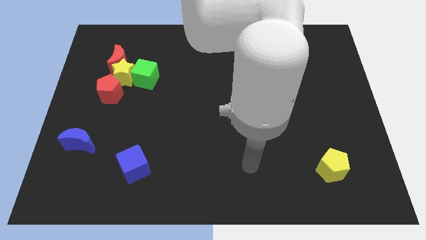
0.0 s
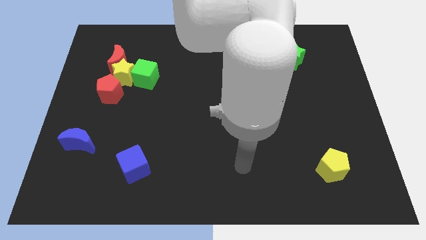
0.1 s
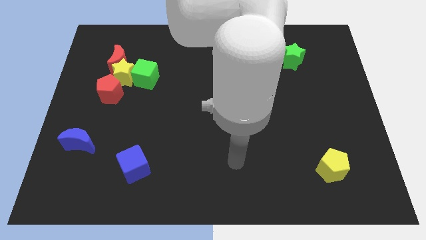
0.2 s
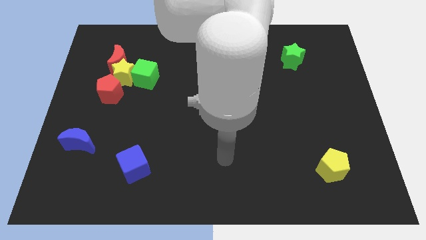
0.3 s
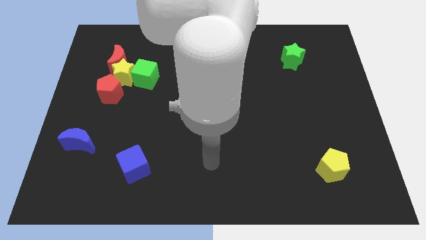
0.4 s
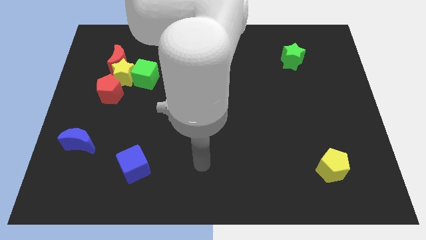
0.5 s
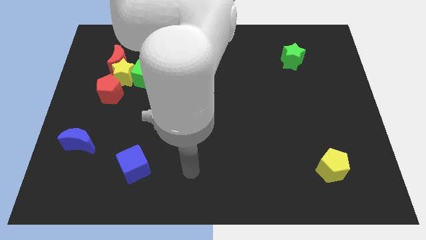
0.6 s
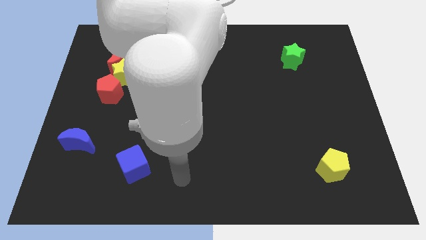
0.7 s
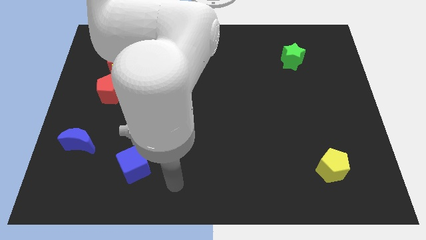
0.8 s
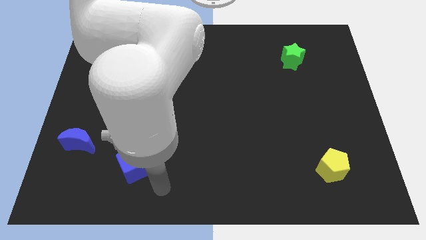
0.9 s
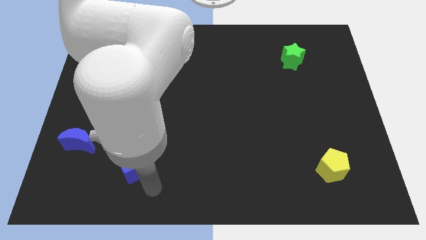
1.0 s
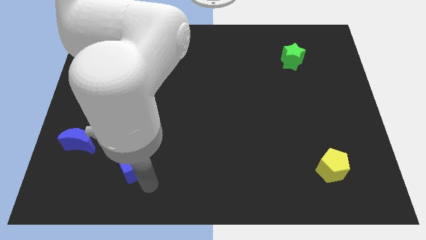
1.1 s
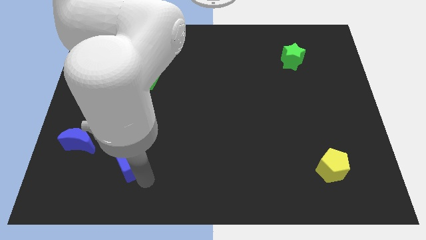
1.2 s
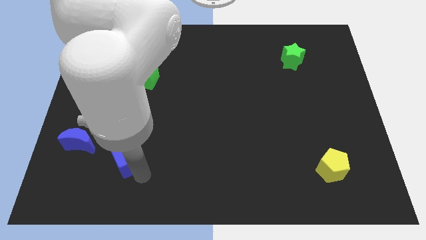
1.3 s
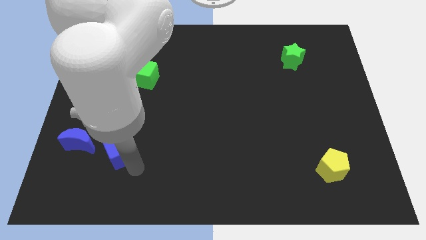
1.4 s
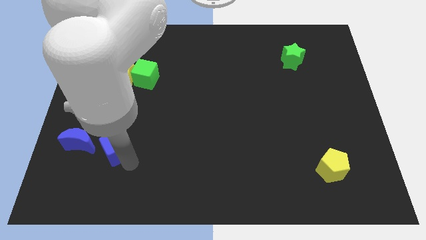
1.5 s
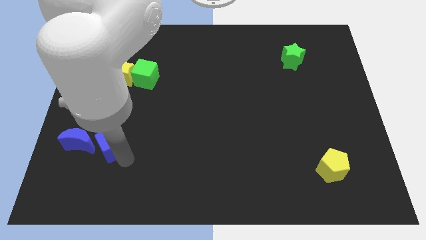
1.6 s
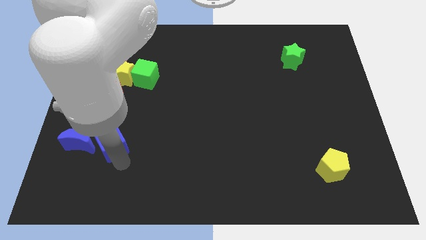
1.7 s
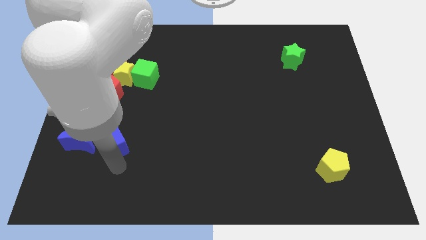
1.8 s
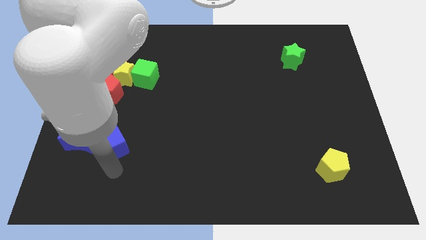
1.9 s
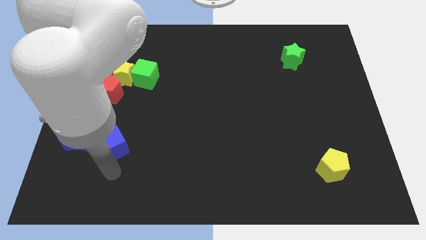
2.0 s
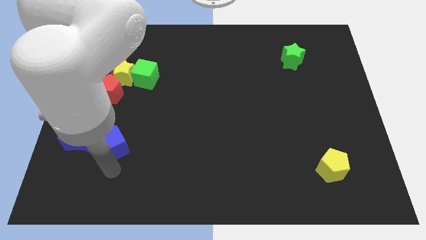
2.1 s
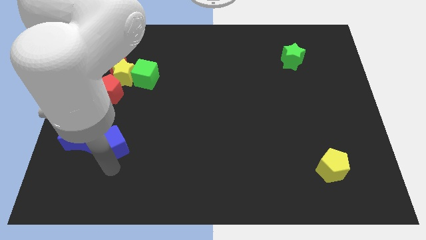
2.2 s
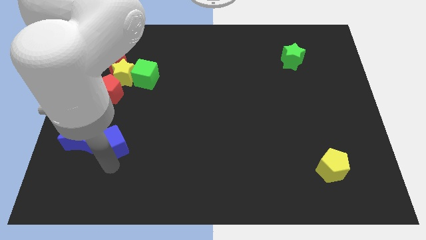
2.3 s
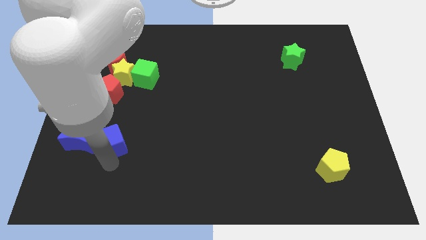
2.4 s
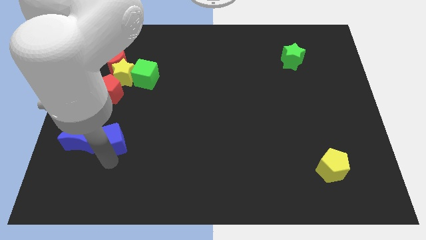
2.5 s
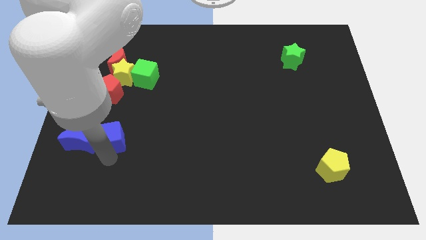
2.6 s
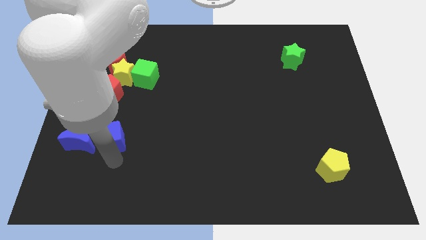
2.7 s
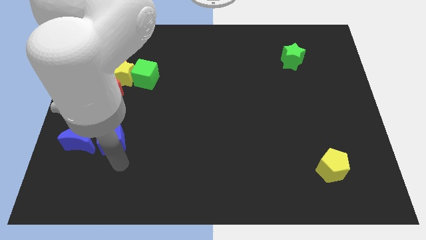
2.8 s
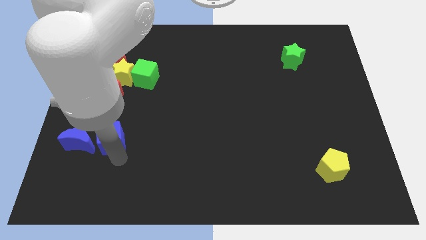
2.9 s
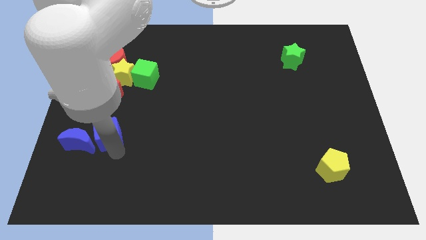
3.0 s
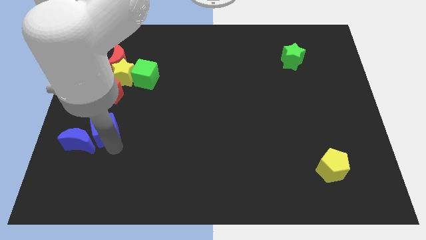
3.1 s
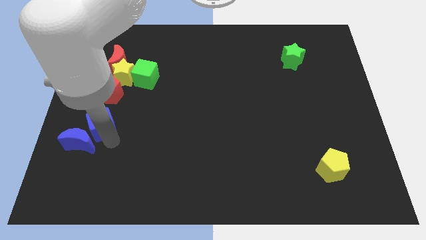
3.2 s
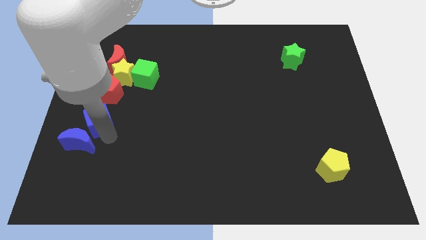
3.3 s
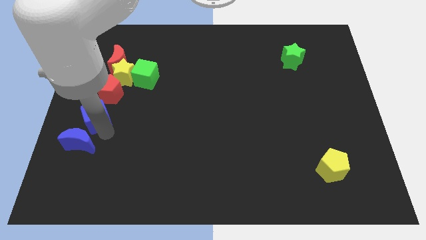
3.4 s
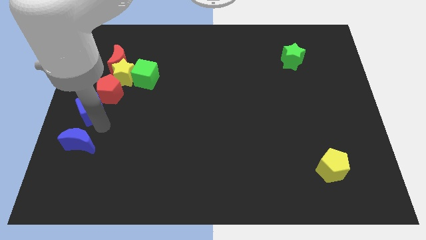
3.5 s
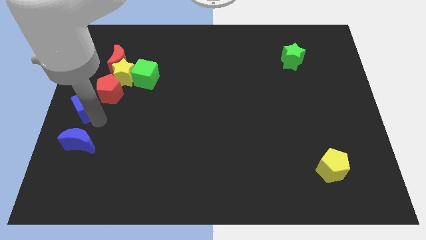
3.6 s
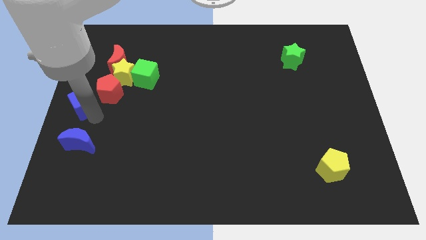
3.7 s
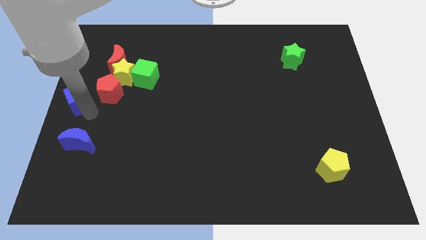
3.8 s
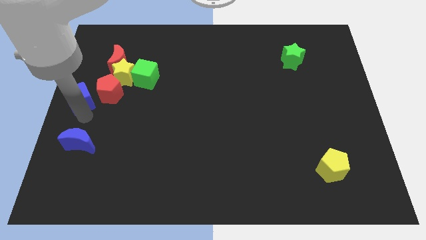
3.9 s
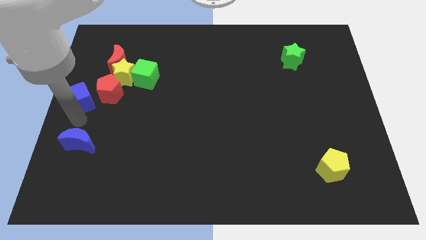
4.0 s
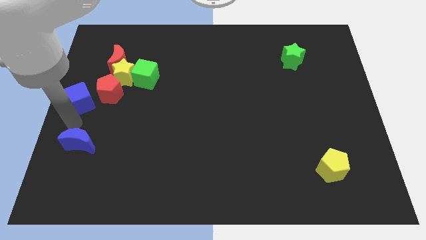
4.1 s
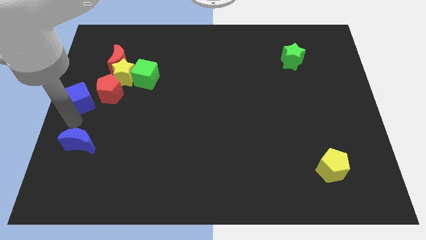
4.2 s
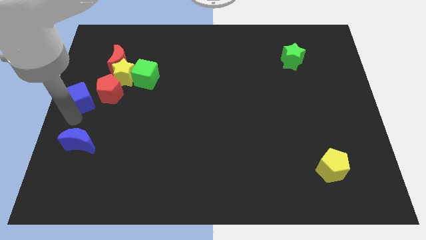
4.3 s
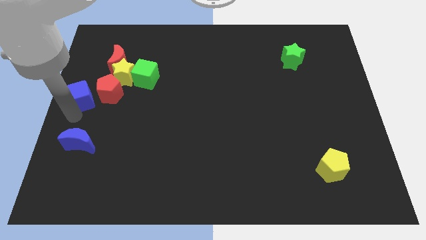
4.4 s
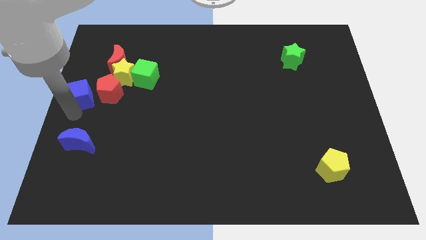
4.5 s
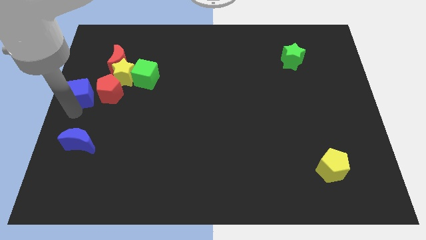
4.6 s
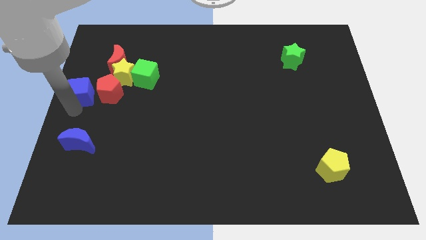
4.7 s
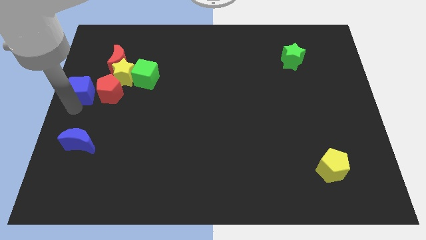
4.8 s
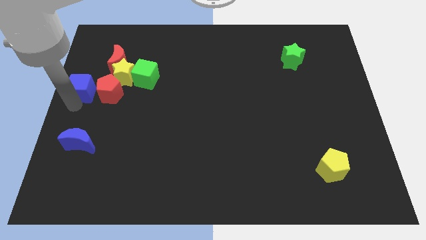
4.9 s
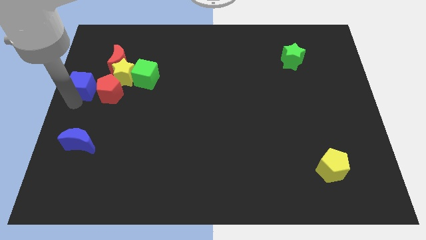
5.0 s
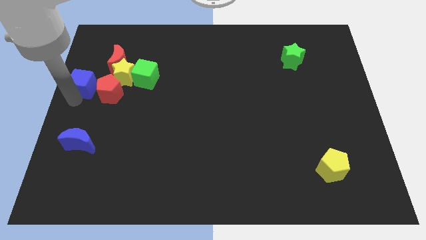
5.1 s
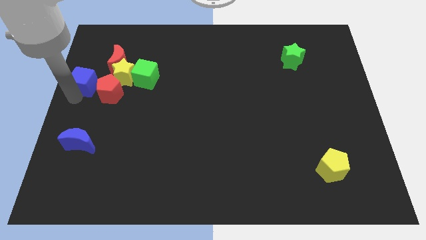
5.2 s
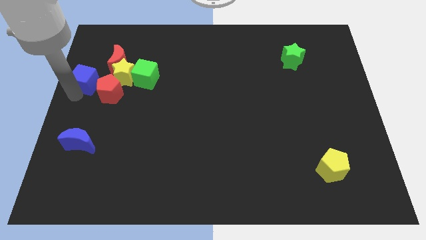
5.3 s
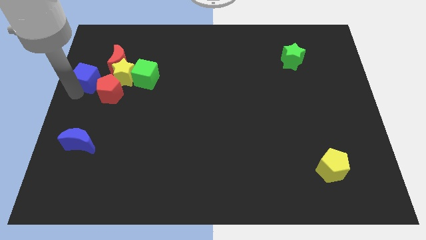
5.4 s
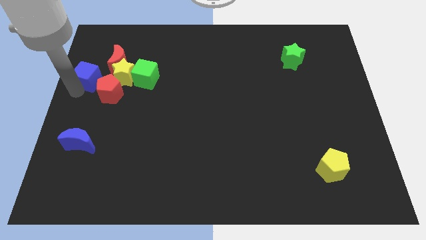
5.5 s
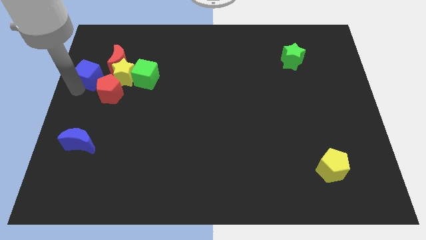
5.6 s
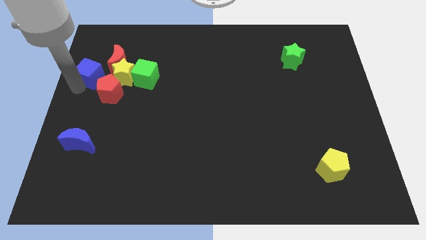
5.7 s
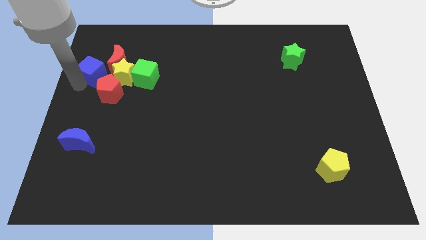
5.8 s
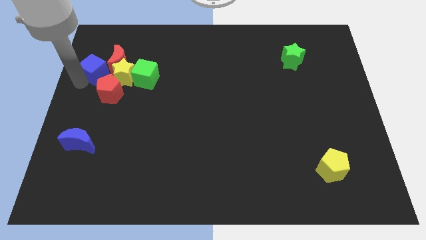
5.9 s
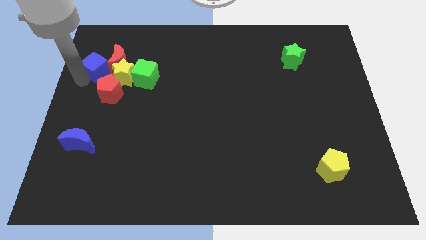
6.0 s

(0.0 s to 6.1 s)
move the blue cube close to the red moon
